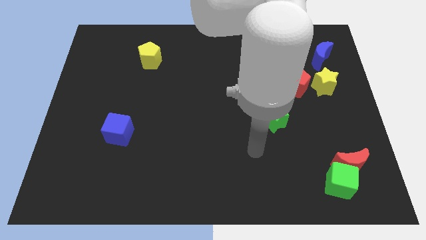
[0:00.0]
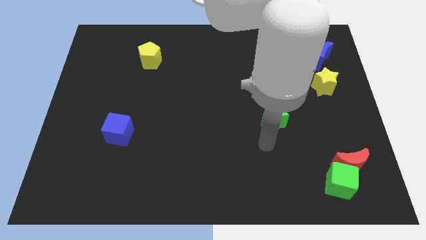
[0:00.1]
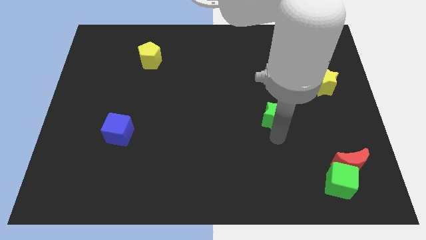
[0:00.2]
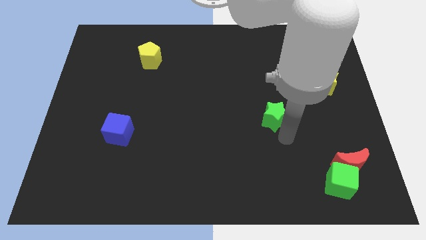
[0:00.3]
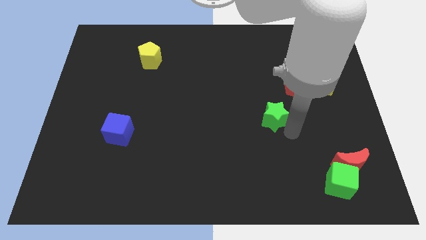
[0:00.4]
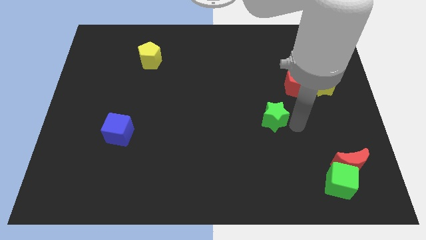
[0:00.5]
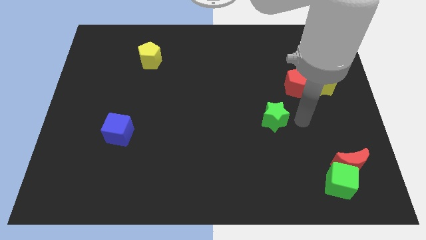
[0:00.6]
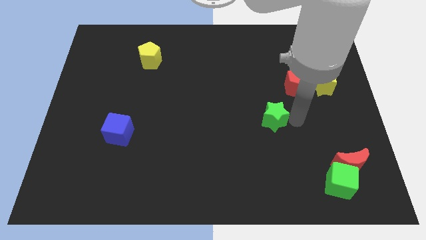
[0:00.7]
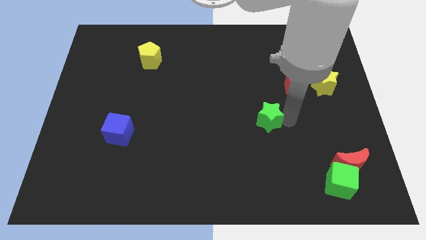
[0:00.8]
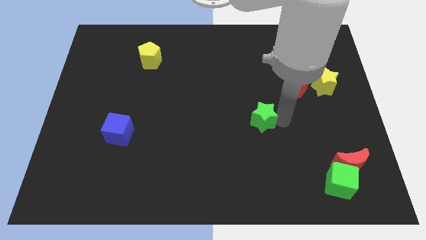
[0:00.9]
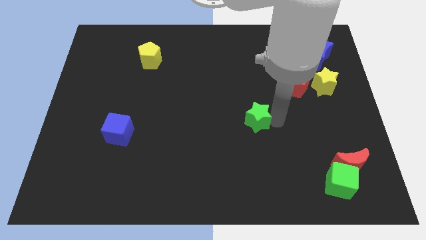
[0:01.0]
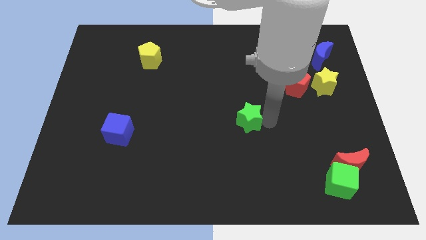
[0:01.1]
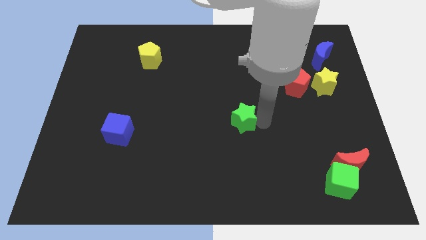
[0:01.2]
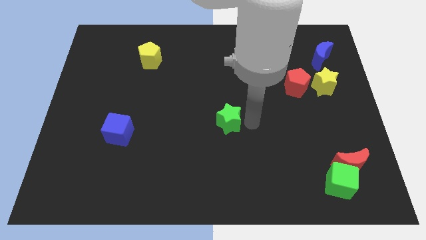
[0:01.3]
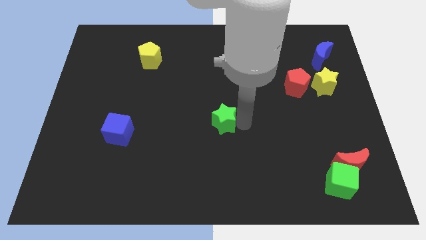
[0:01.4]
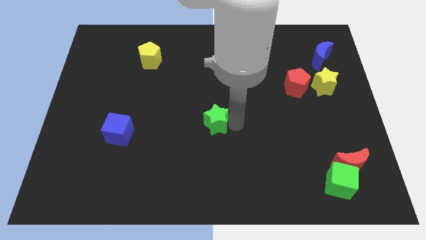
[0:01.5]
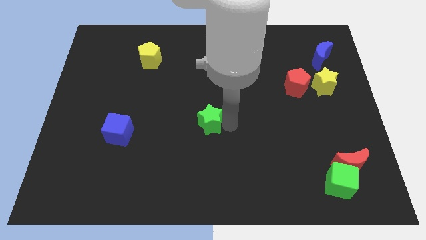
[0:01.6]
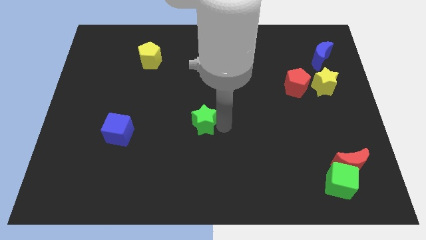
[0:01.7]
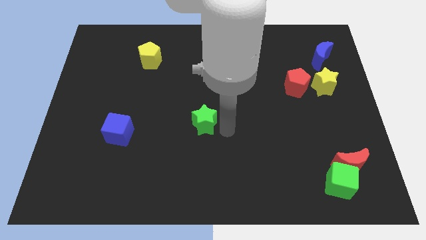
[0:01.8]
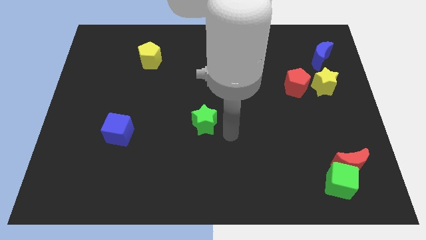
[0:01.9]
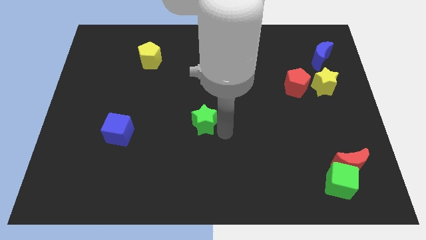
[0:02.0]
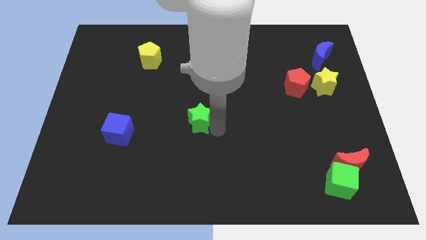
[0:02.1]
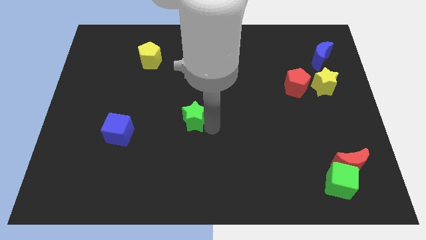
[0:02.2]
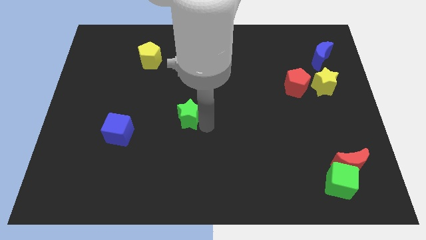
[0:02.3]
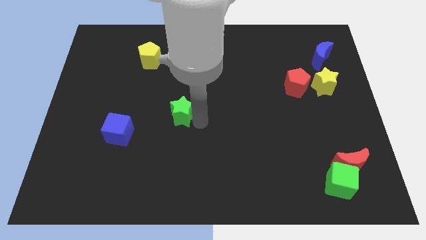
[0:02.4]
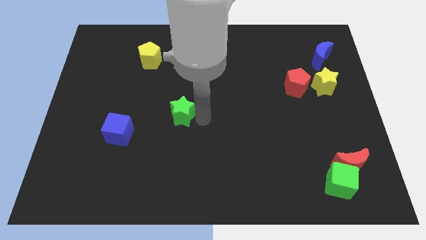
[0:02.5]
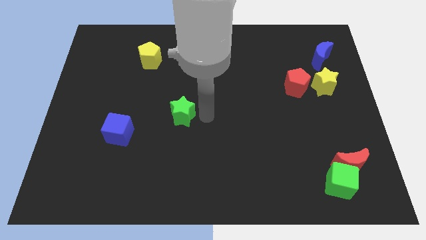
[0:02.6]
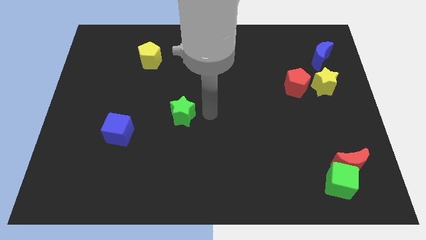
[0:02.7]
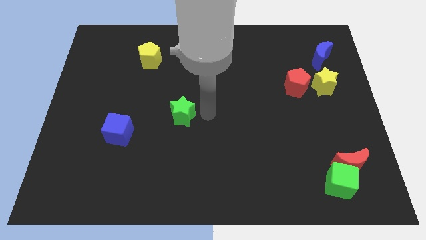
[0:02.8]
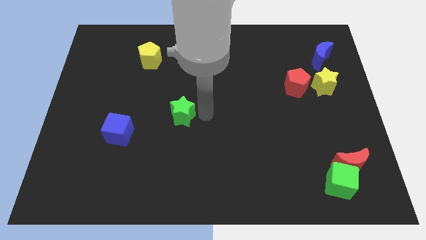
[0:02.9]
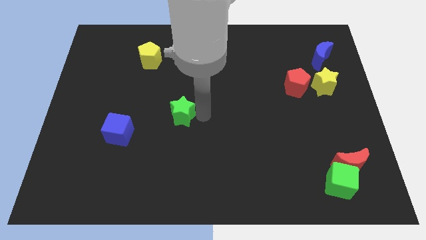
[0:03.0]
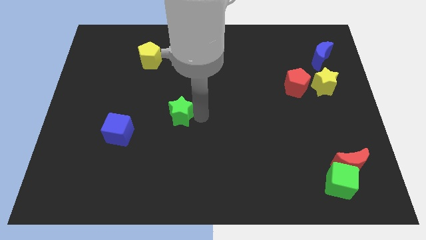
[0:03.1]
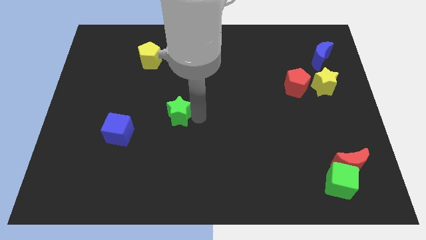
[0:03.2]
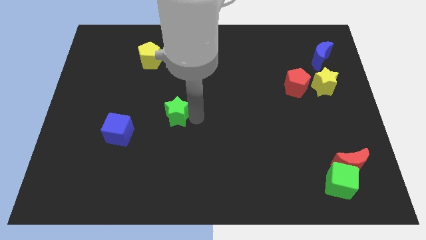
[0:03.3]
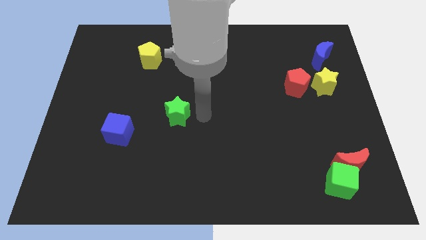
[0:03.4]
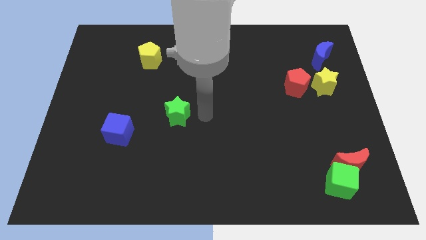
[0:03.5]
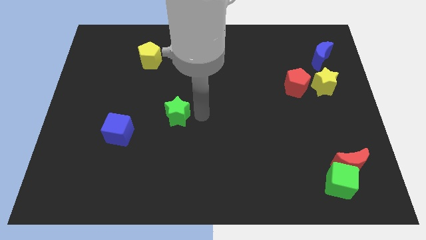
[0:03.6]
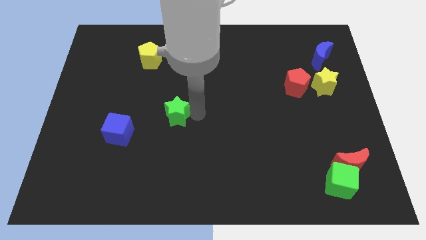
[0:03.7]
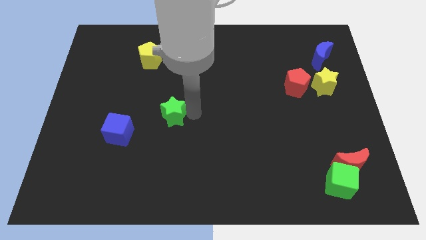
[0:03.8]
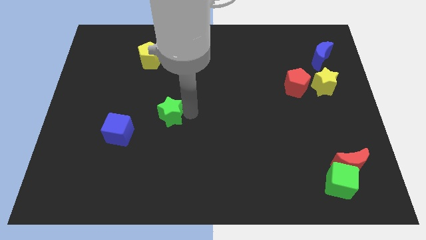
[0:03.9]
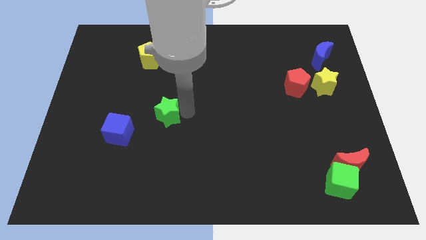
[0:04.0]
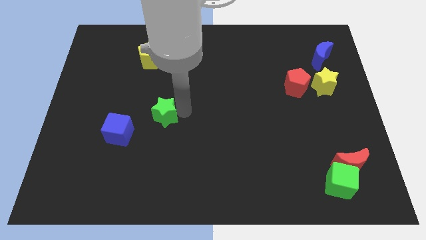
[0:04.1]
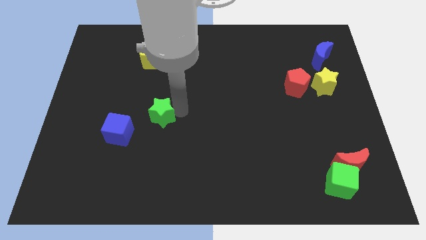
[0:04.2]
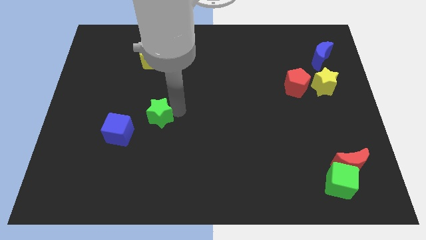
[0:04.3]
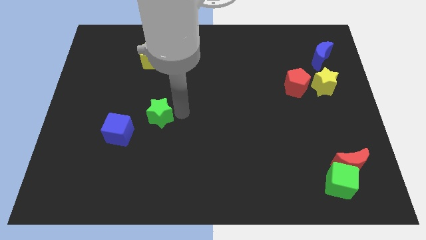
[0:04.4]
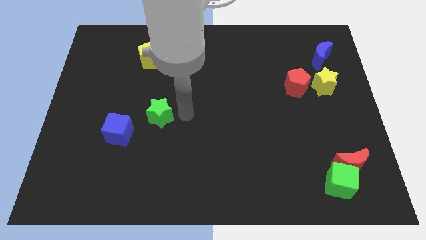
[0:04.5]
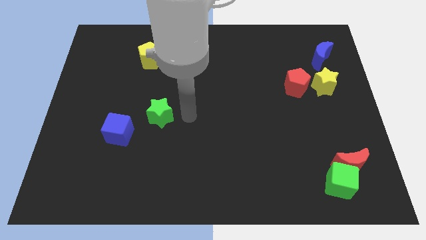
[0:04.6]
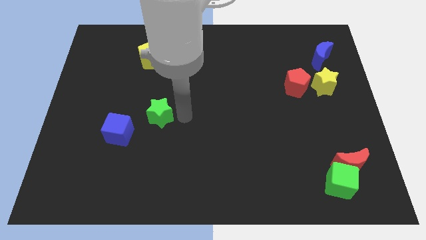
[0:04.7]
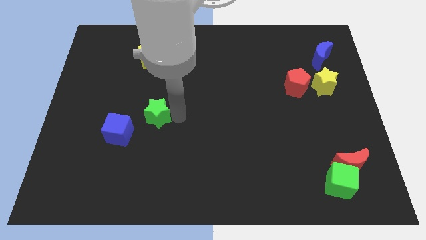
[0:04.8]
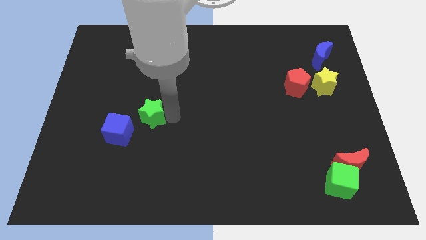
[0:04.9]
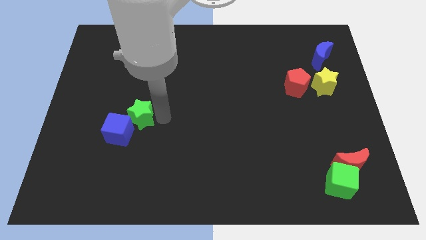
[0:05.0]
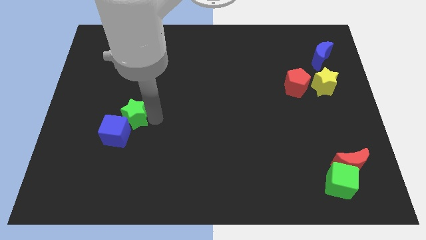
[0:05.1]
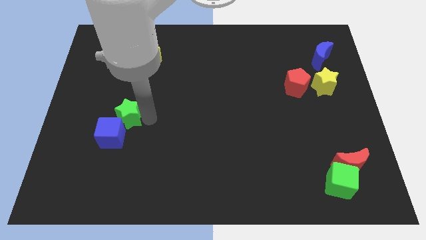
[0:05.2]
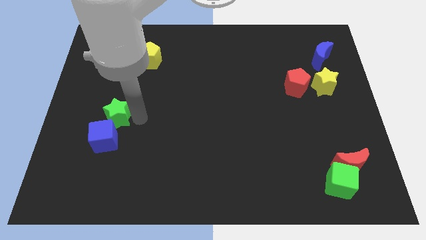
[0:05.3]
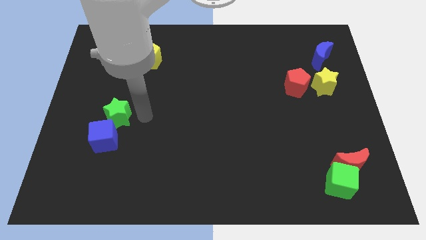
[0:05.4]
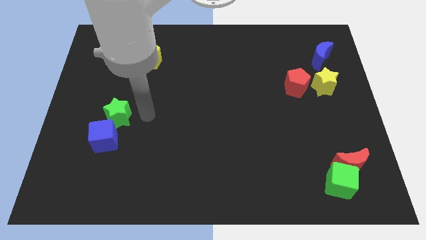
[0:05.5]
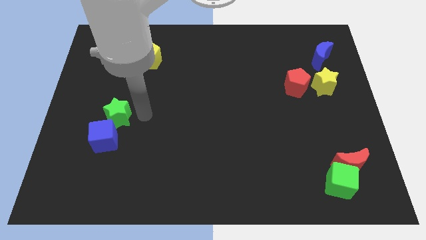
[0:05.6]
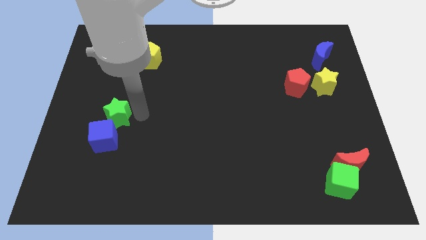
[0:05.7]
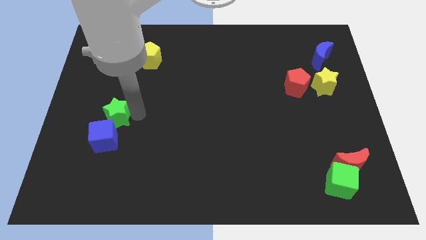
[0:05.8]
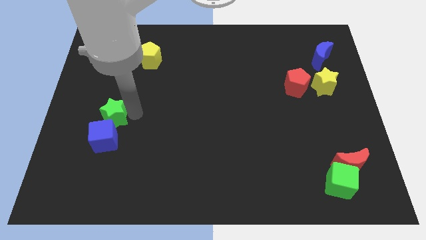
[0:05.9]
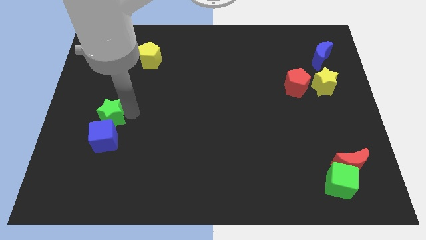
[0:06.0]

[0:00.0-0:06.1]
move the green star diagonally up and to the left of the blue cube

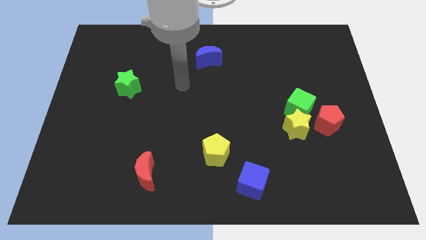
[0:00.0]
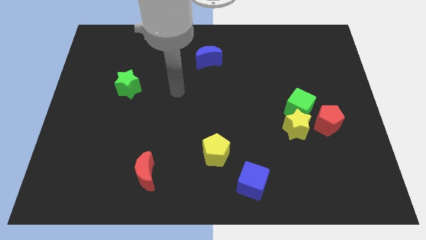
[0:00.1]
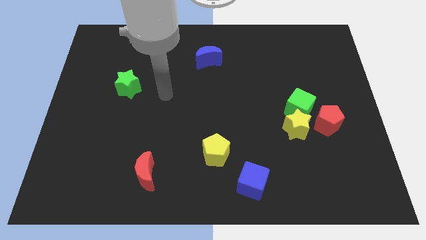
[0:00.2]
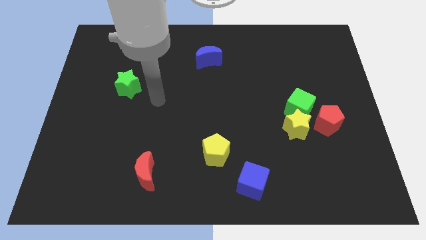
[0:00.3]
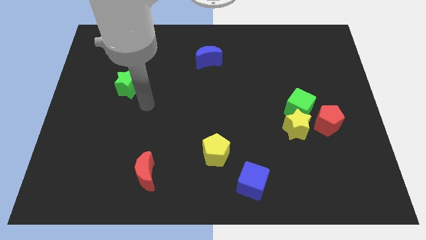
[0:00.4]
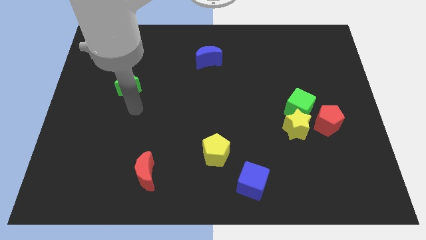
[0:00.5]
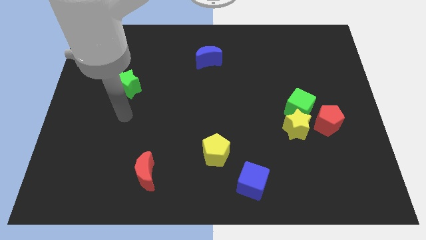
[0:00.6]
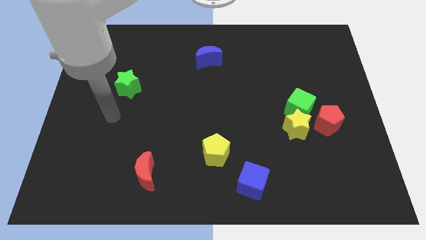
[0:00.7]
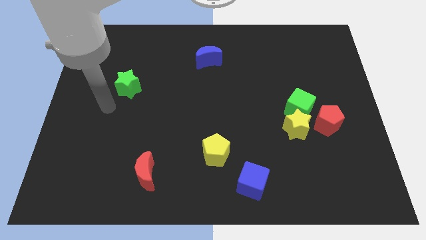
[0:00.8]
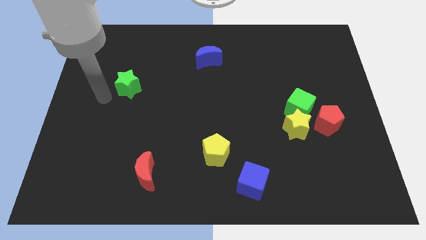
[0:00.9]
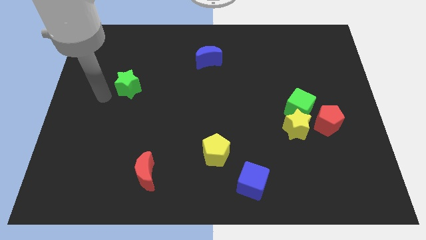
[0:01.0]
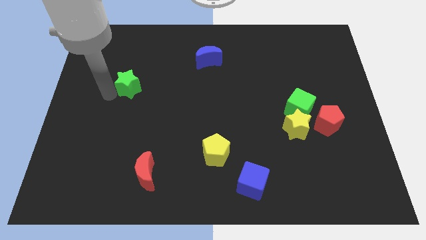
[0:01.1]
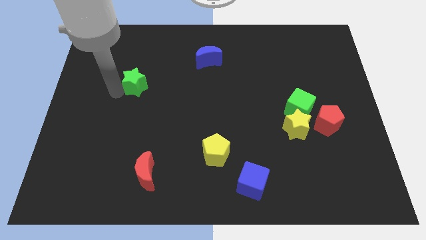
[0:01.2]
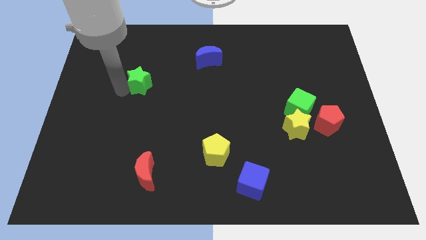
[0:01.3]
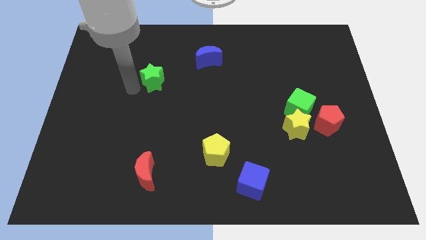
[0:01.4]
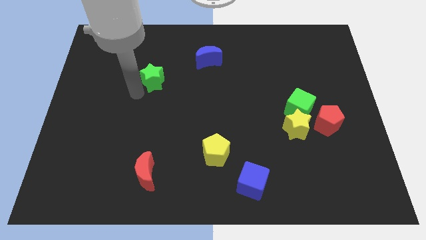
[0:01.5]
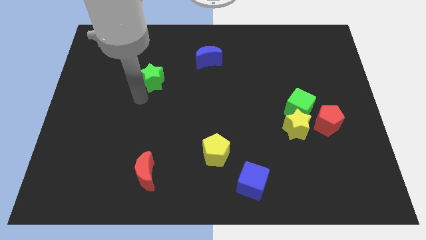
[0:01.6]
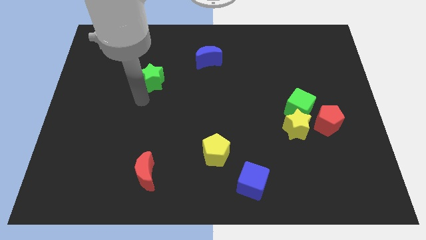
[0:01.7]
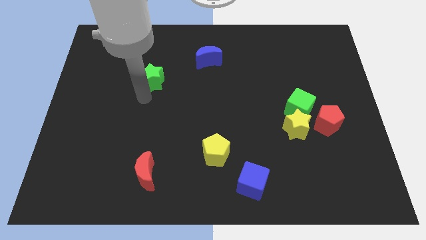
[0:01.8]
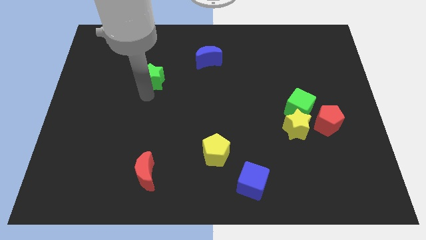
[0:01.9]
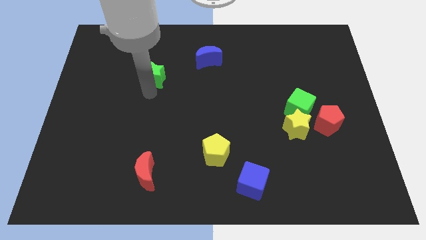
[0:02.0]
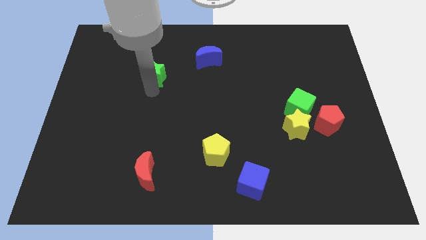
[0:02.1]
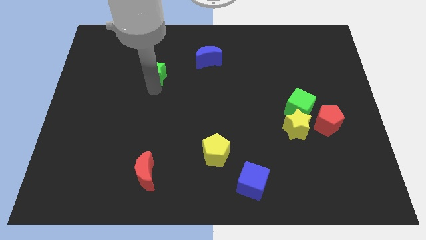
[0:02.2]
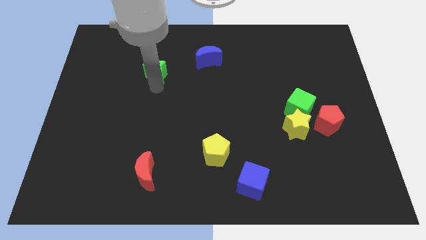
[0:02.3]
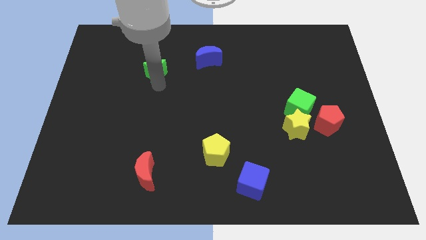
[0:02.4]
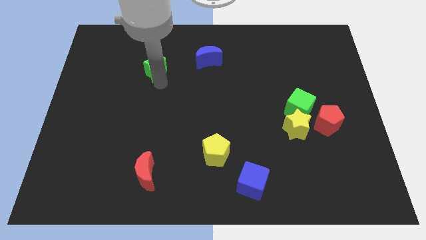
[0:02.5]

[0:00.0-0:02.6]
move the green star to the left side of the blue moon
